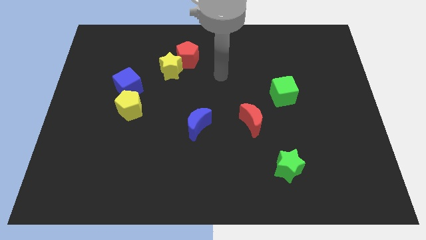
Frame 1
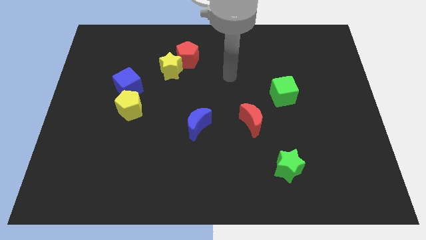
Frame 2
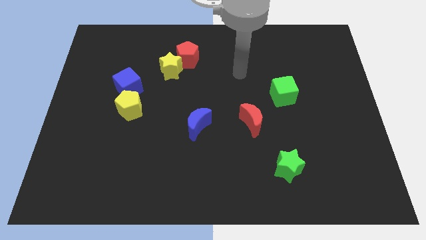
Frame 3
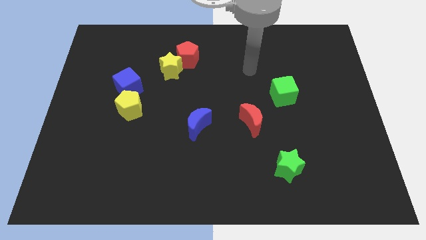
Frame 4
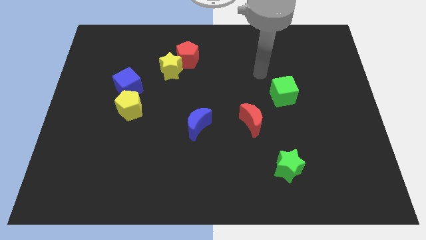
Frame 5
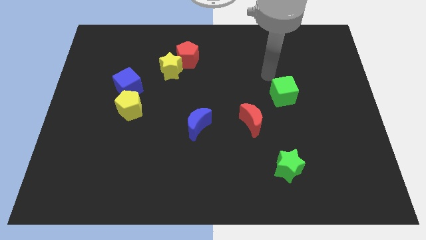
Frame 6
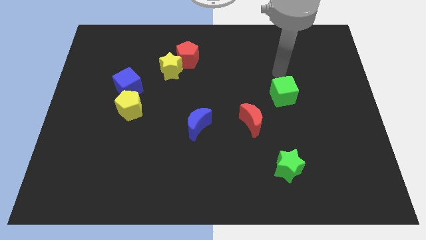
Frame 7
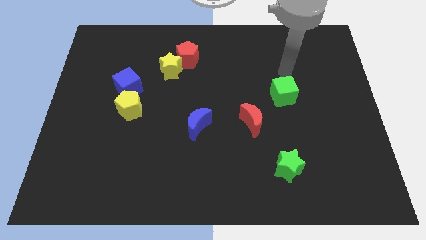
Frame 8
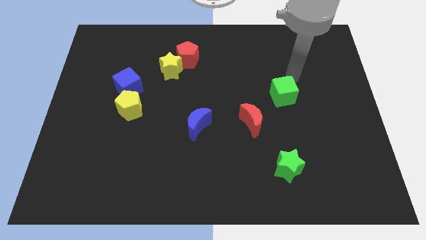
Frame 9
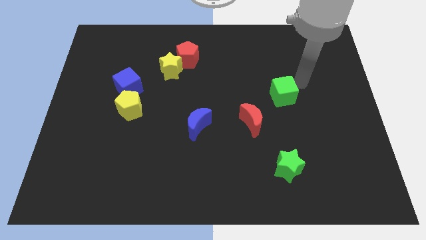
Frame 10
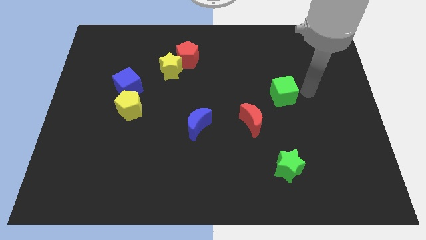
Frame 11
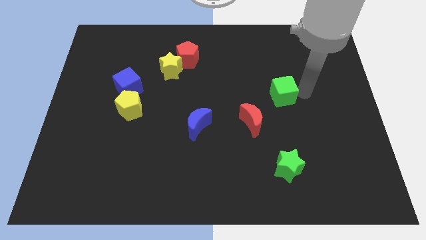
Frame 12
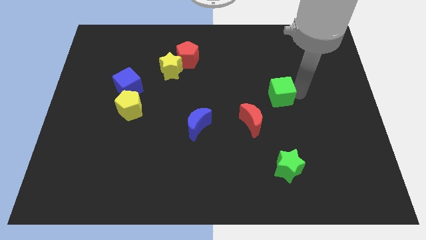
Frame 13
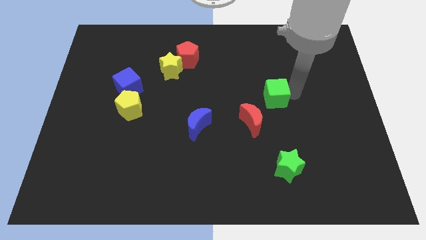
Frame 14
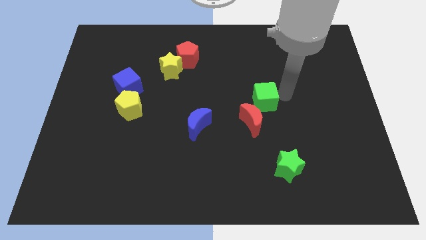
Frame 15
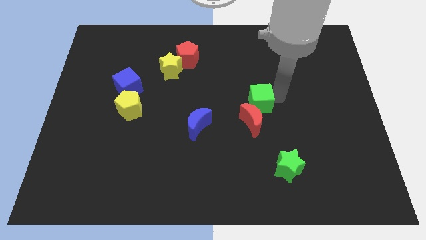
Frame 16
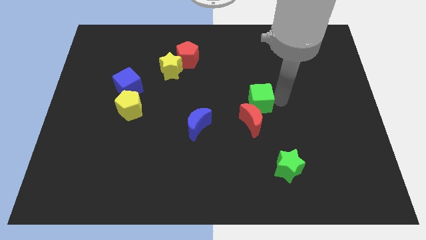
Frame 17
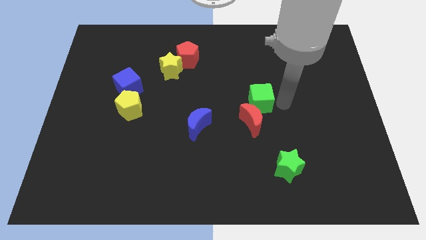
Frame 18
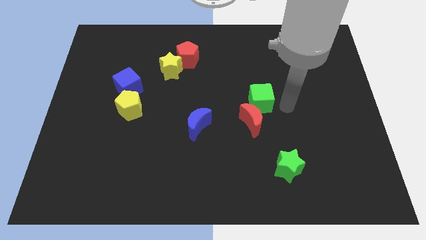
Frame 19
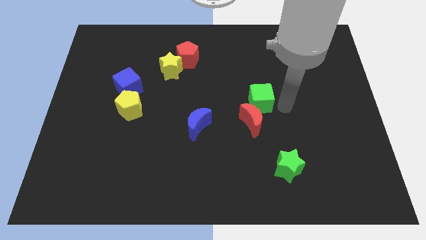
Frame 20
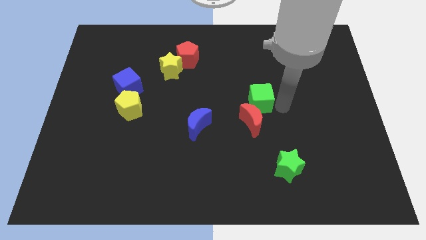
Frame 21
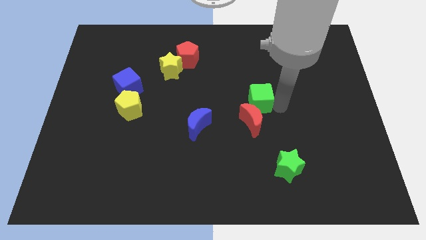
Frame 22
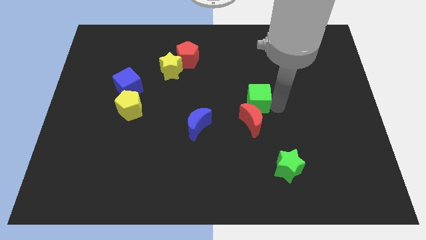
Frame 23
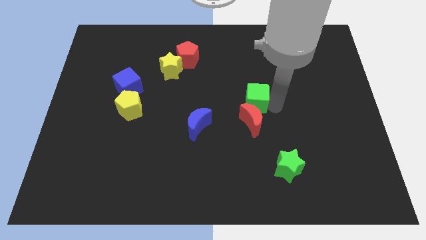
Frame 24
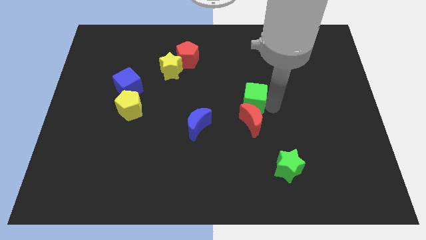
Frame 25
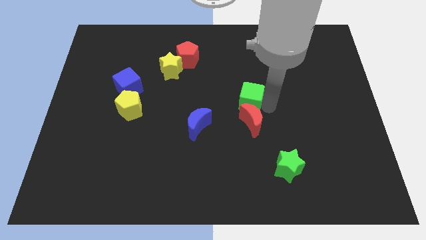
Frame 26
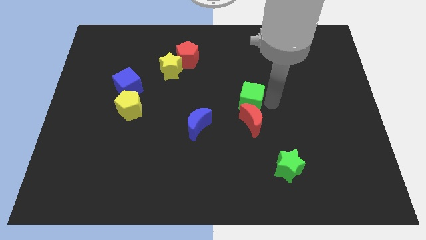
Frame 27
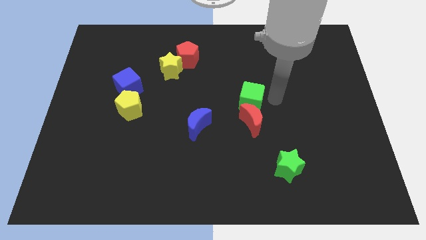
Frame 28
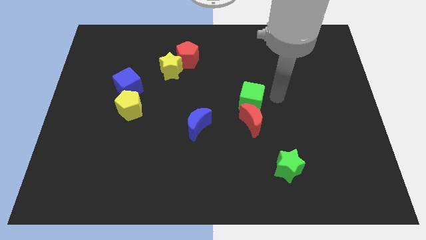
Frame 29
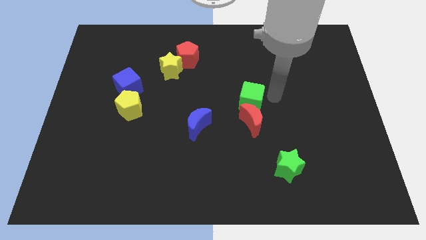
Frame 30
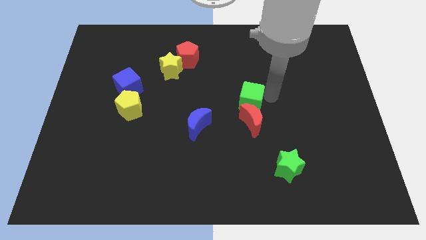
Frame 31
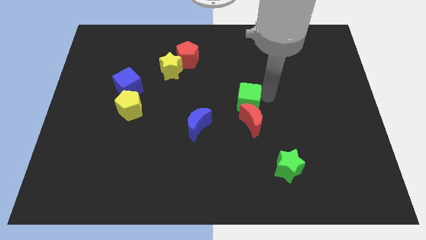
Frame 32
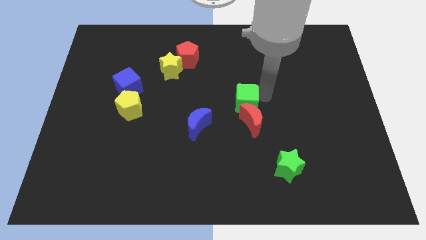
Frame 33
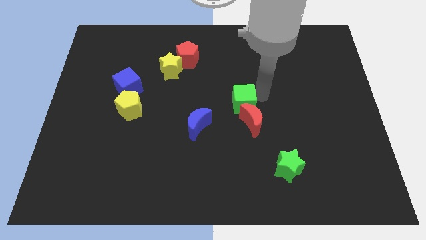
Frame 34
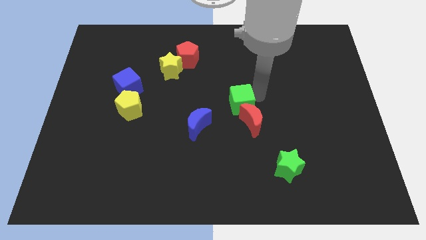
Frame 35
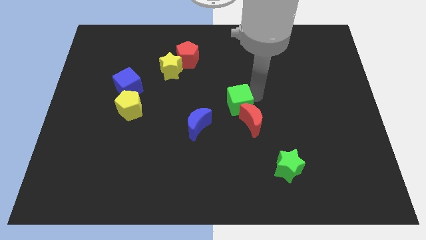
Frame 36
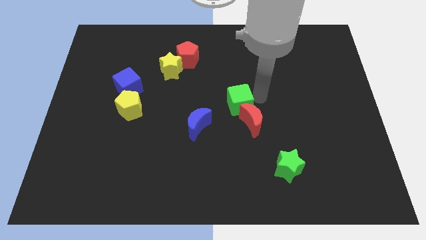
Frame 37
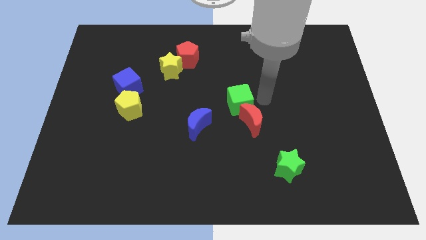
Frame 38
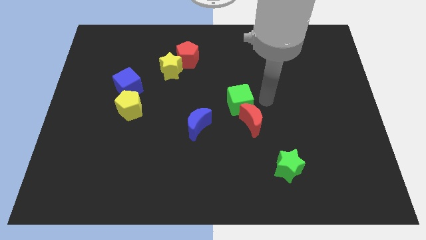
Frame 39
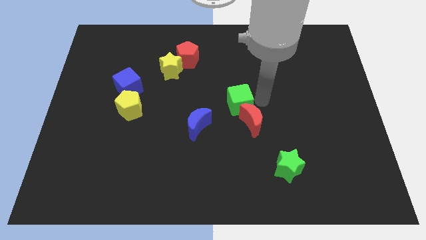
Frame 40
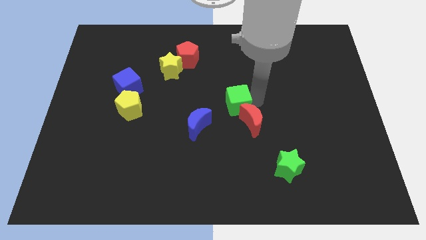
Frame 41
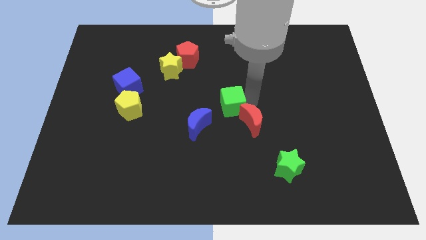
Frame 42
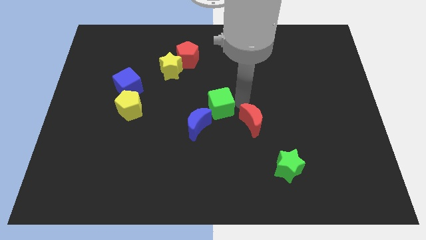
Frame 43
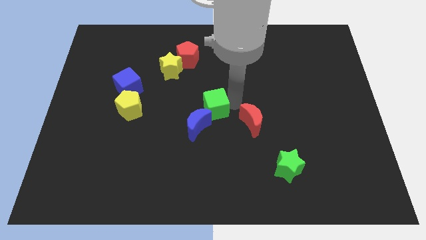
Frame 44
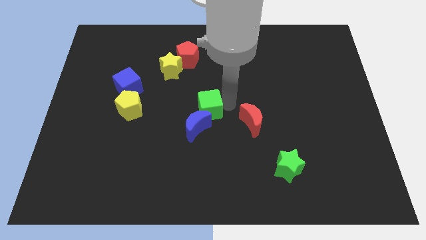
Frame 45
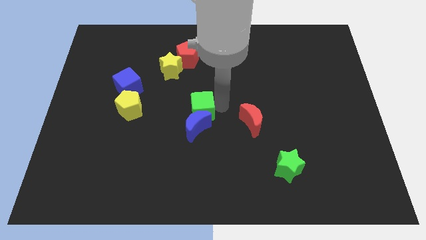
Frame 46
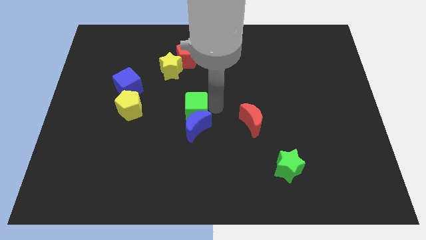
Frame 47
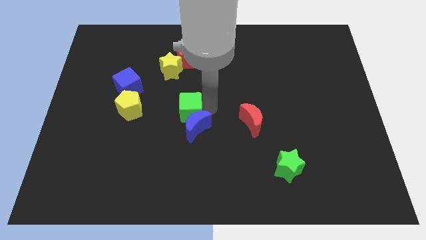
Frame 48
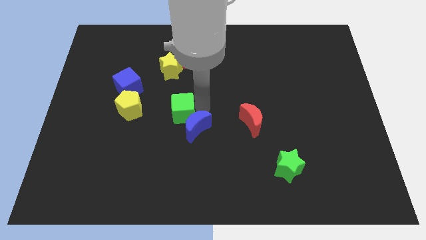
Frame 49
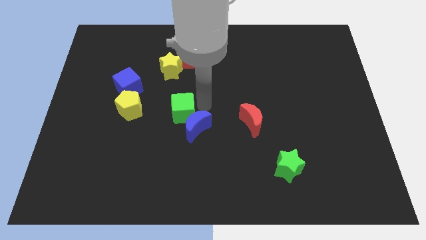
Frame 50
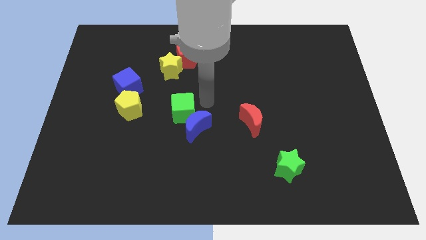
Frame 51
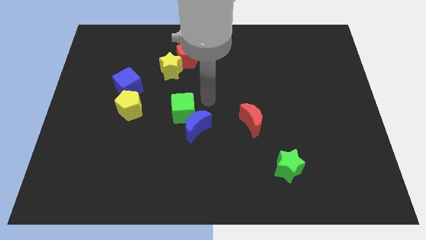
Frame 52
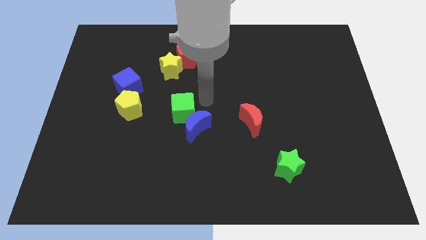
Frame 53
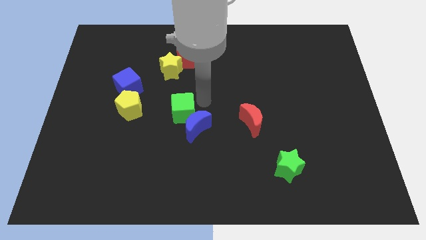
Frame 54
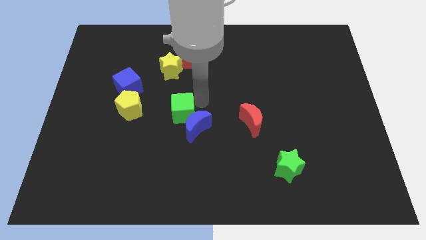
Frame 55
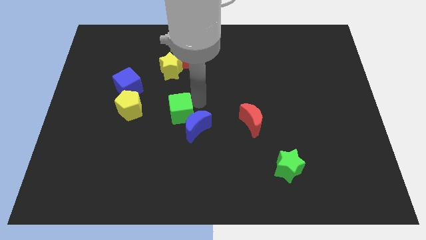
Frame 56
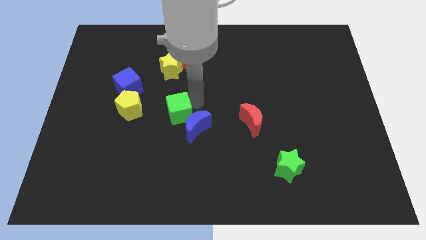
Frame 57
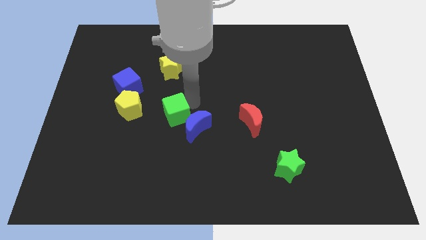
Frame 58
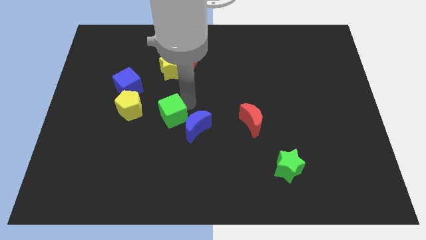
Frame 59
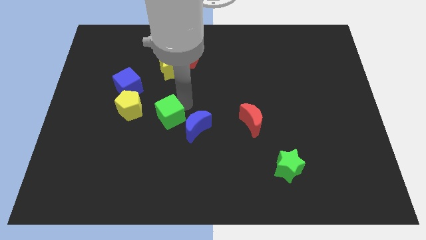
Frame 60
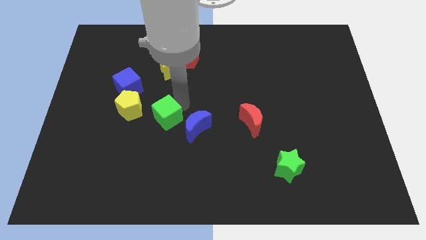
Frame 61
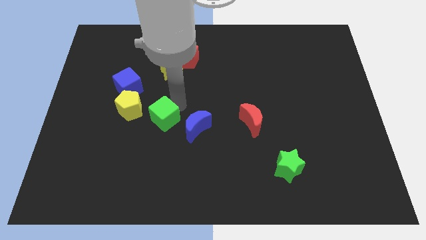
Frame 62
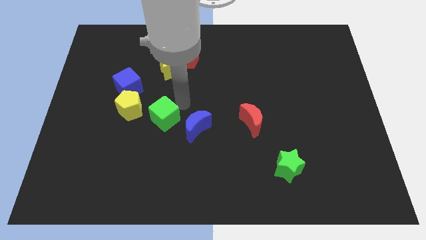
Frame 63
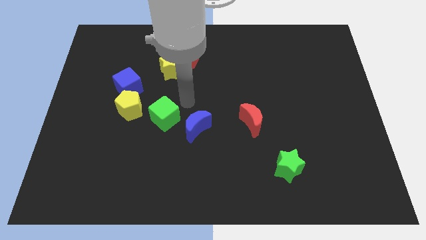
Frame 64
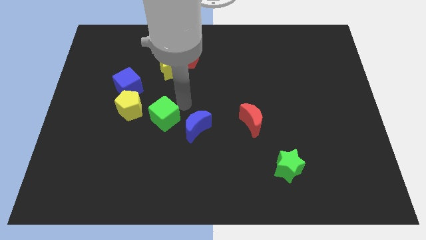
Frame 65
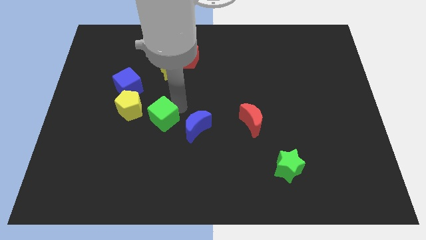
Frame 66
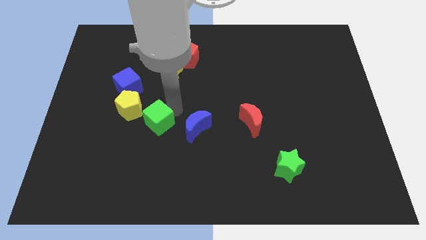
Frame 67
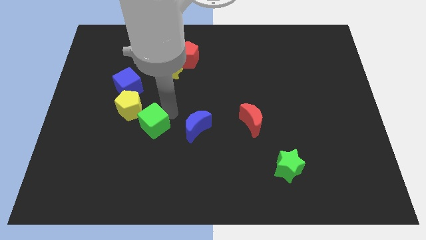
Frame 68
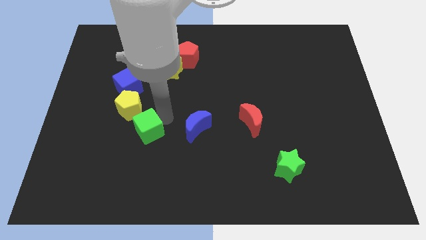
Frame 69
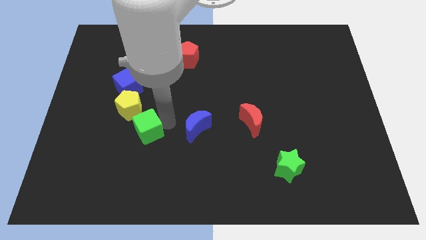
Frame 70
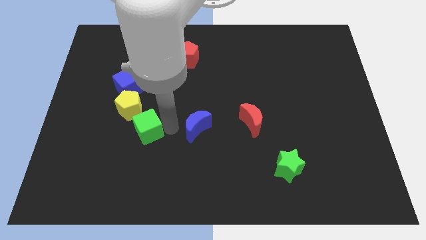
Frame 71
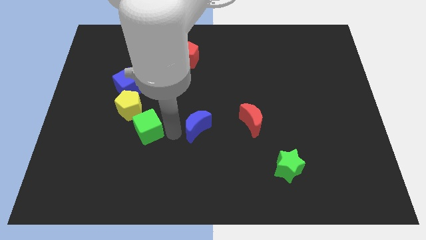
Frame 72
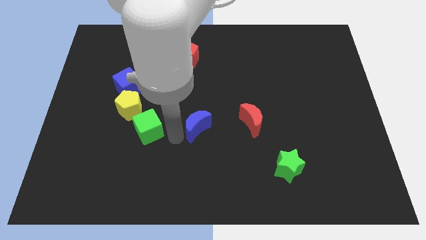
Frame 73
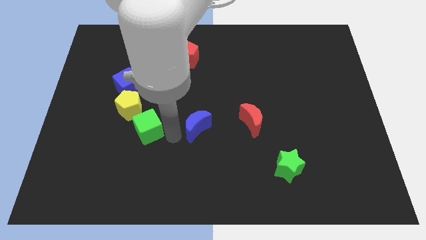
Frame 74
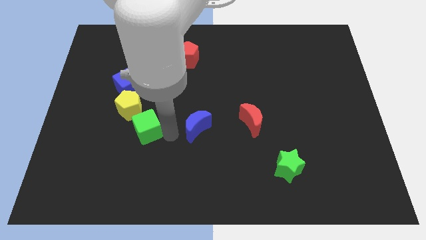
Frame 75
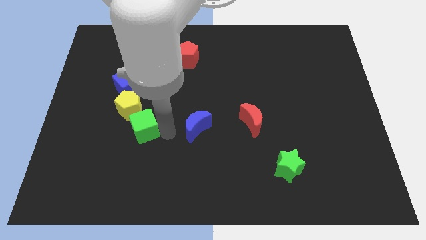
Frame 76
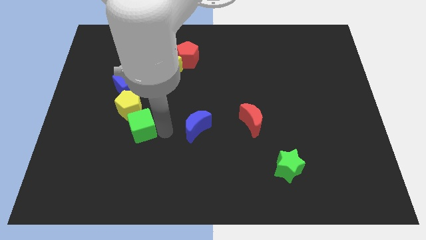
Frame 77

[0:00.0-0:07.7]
put the green cube to the bottom side of the blue cube
